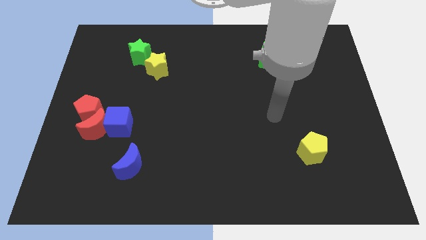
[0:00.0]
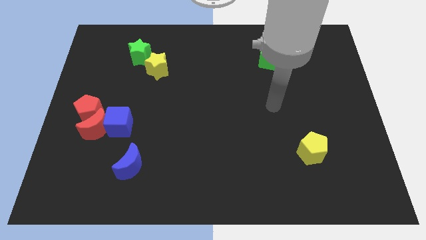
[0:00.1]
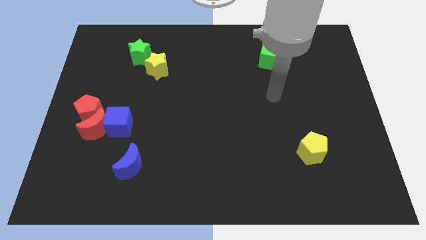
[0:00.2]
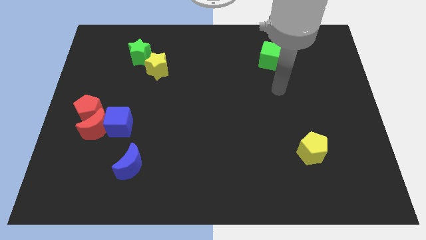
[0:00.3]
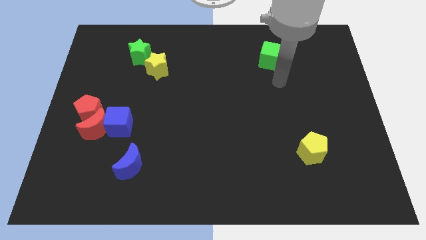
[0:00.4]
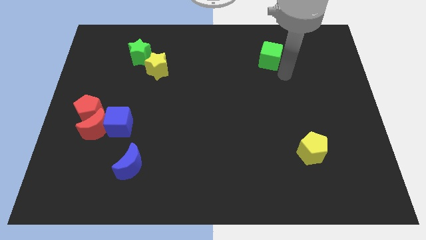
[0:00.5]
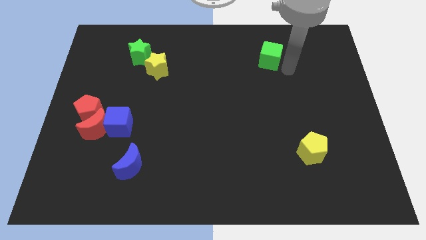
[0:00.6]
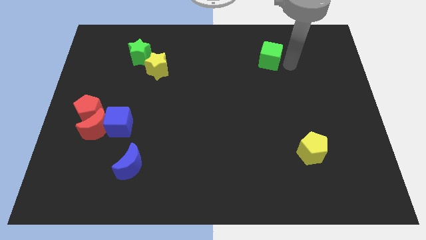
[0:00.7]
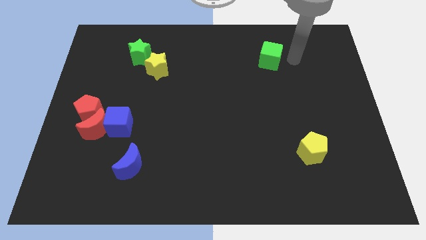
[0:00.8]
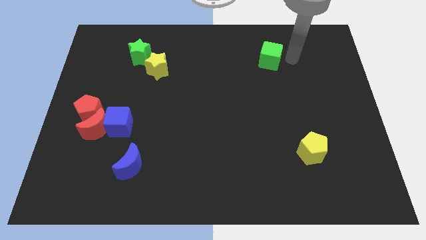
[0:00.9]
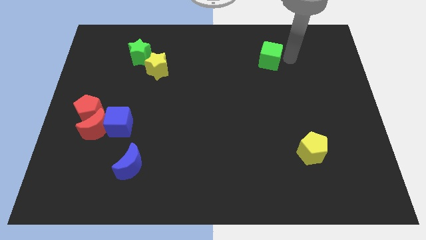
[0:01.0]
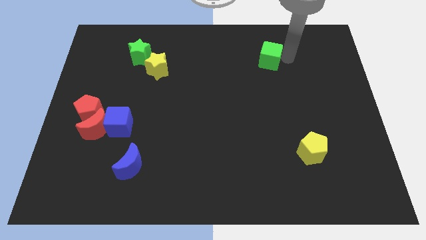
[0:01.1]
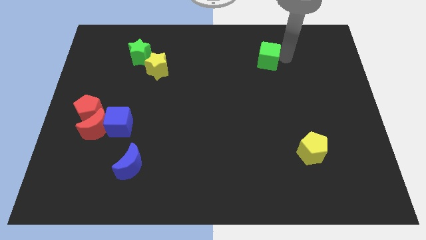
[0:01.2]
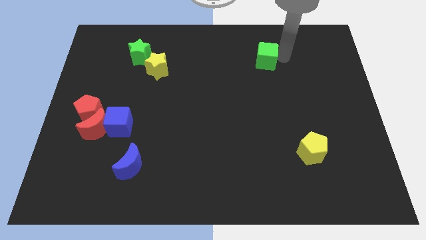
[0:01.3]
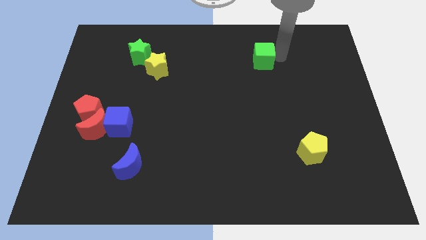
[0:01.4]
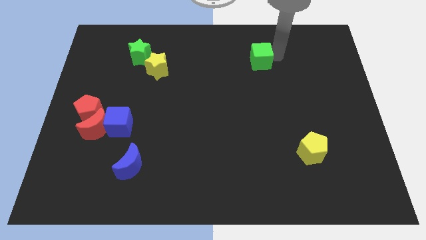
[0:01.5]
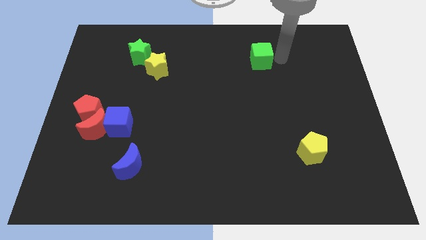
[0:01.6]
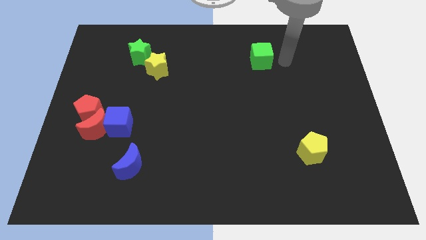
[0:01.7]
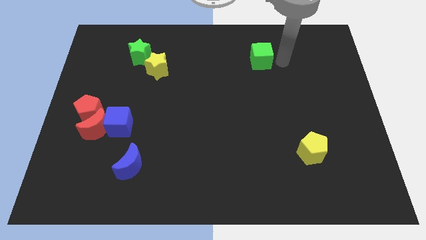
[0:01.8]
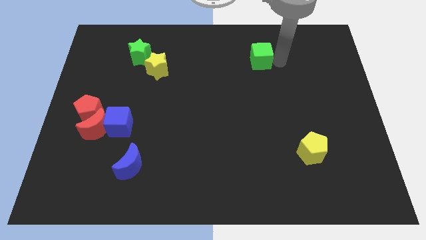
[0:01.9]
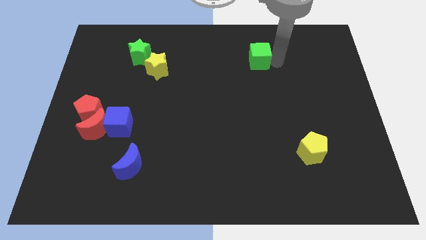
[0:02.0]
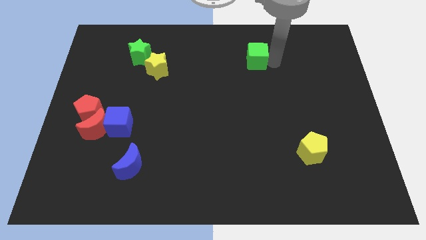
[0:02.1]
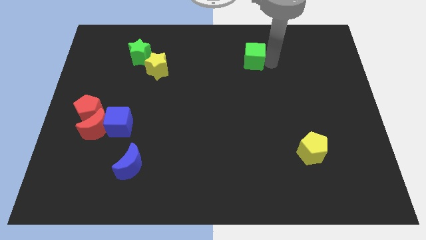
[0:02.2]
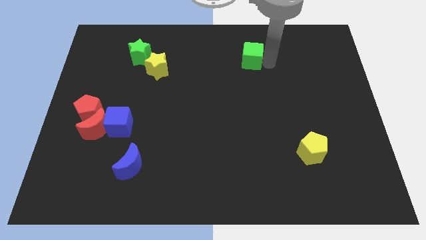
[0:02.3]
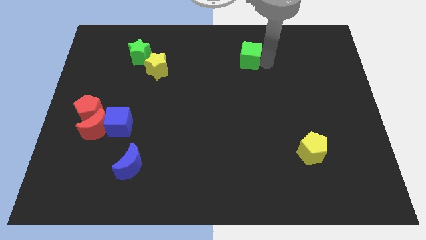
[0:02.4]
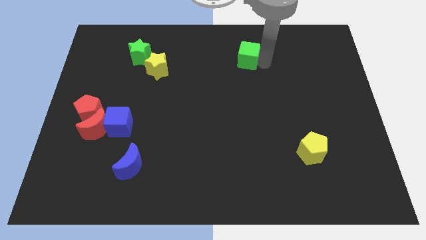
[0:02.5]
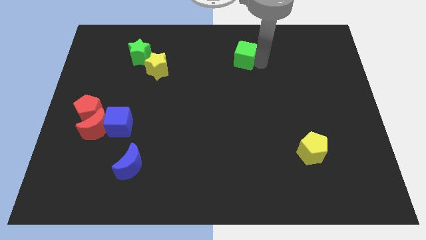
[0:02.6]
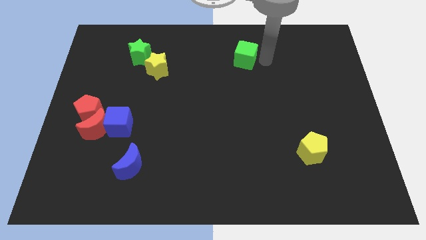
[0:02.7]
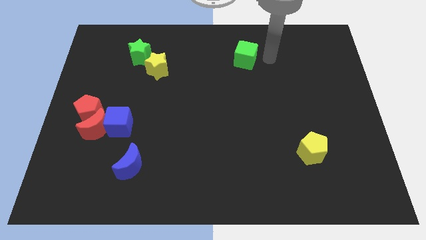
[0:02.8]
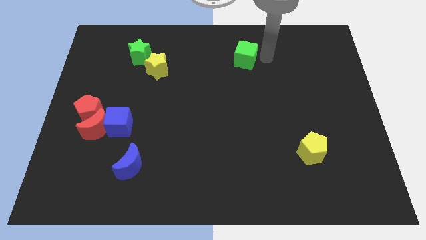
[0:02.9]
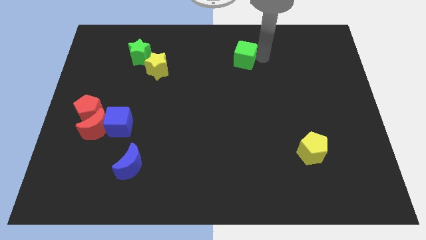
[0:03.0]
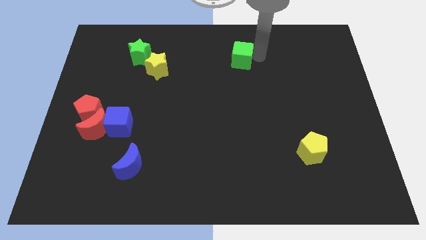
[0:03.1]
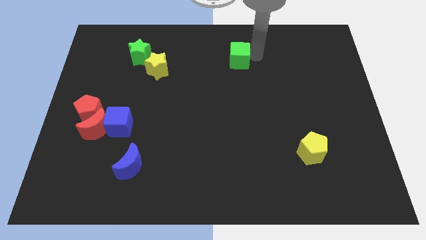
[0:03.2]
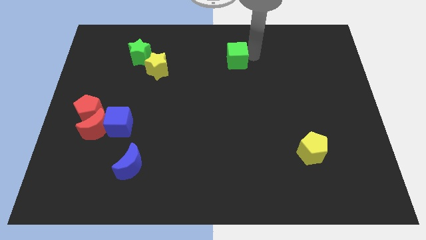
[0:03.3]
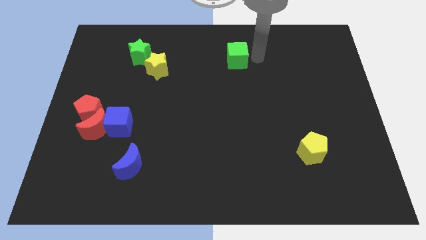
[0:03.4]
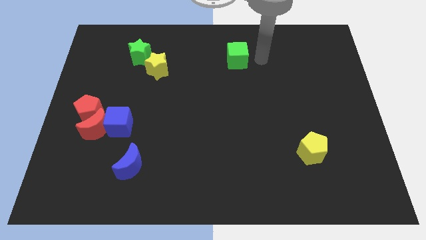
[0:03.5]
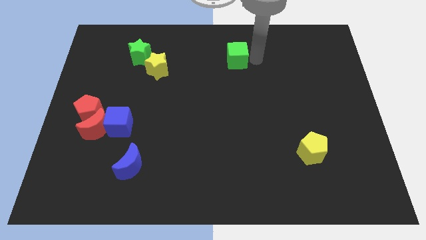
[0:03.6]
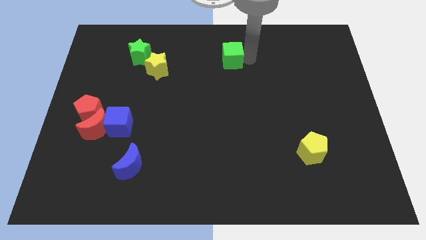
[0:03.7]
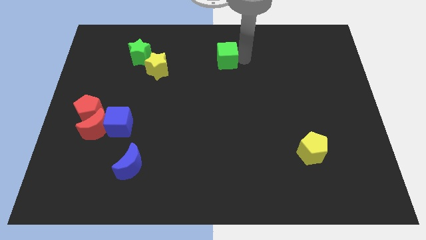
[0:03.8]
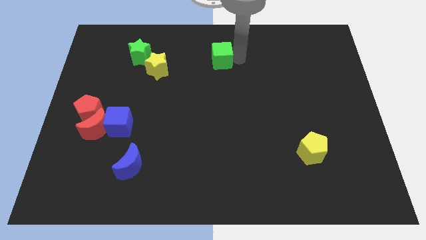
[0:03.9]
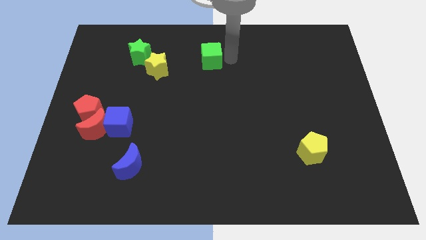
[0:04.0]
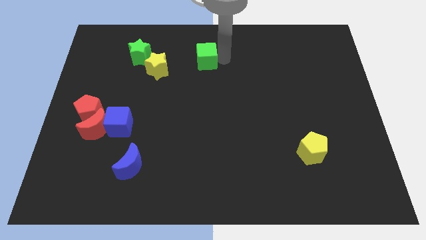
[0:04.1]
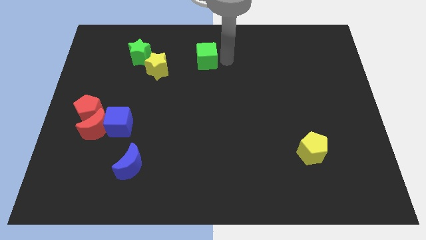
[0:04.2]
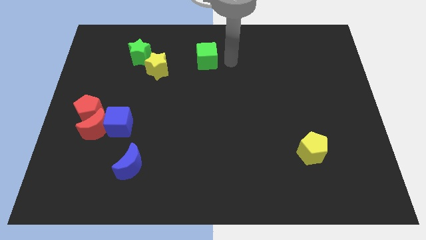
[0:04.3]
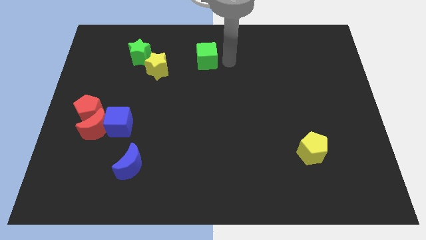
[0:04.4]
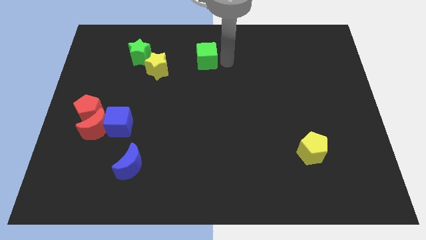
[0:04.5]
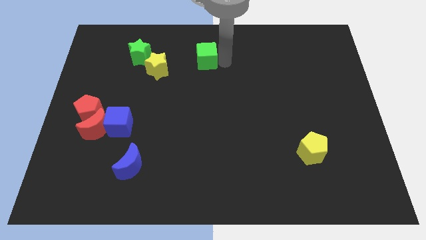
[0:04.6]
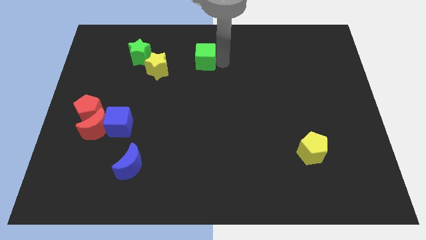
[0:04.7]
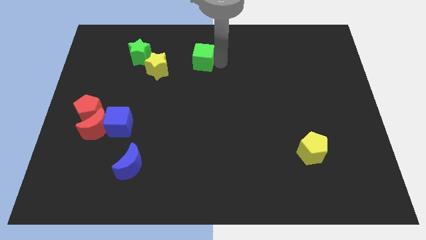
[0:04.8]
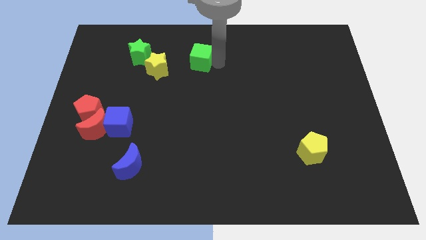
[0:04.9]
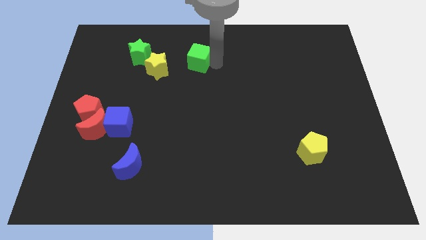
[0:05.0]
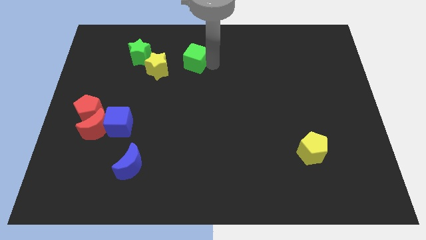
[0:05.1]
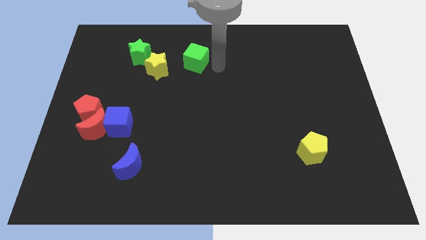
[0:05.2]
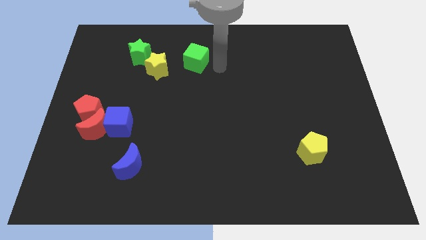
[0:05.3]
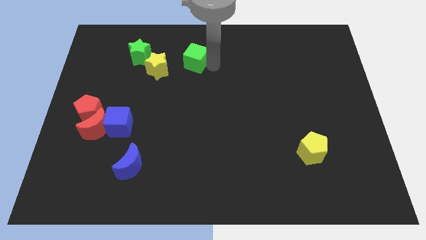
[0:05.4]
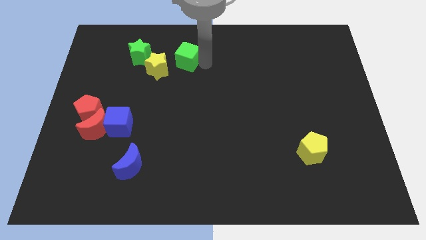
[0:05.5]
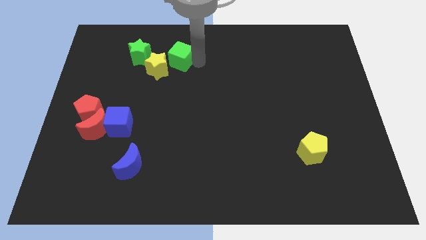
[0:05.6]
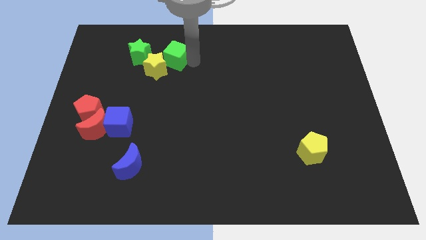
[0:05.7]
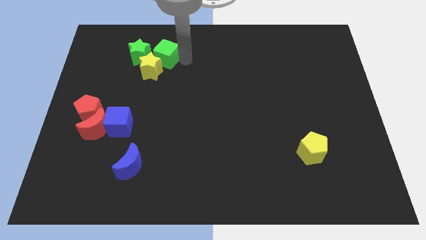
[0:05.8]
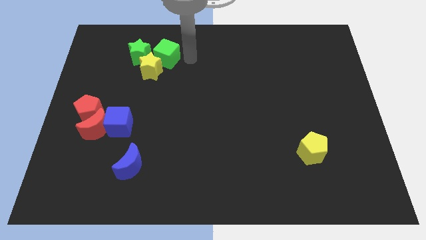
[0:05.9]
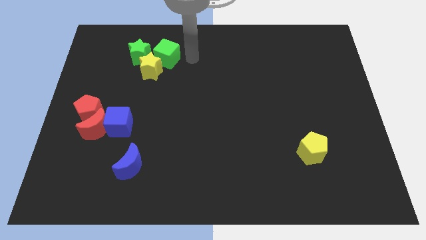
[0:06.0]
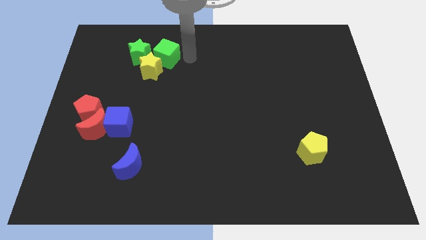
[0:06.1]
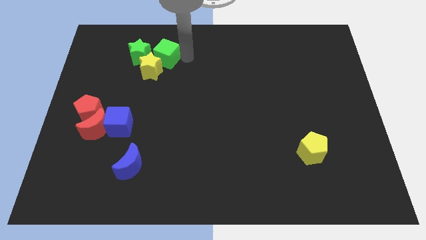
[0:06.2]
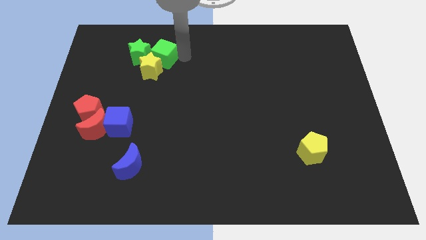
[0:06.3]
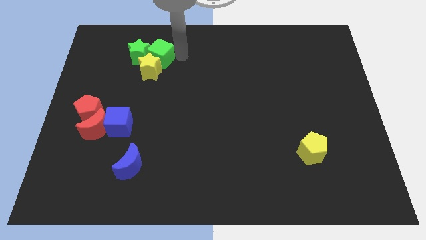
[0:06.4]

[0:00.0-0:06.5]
move the green cube to the green star
